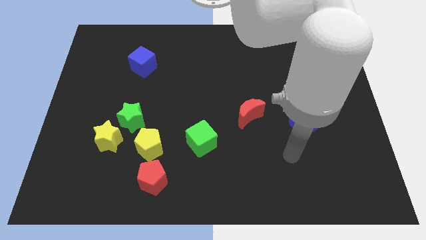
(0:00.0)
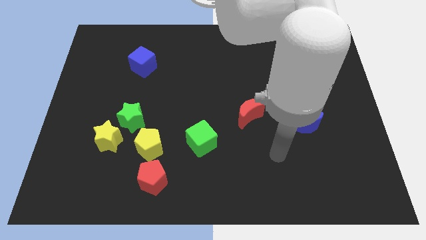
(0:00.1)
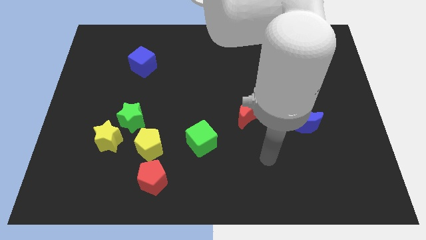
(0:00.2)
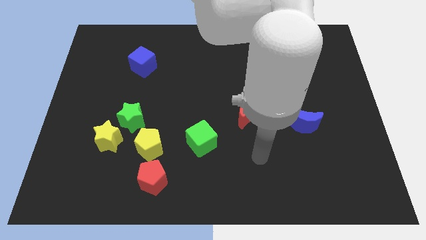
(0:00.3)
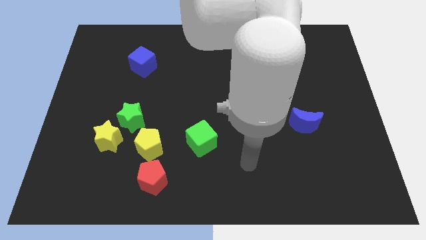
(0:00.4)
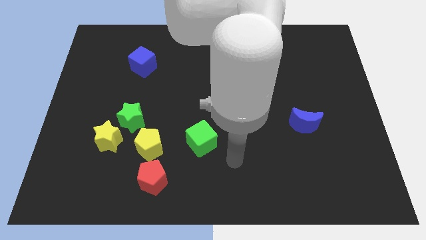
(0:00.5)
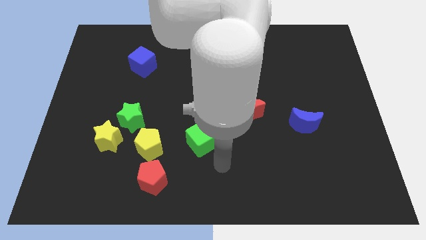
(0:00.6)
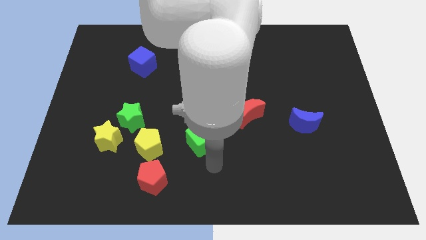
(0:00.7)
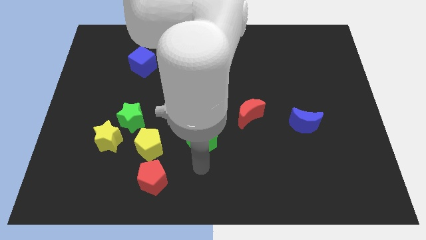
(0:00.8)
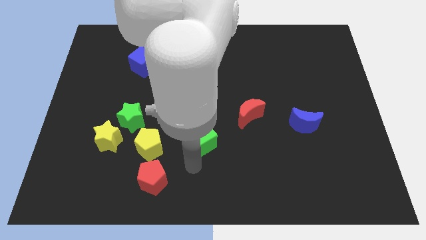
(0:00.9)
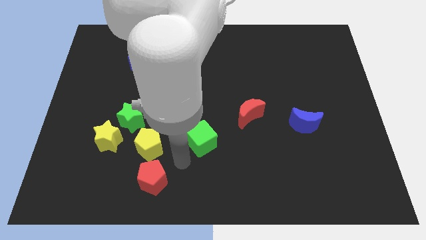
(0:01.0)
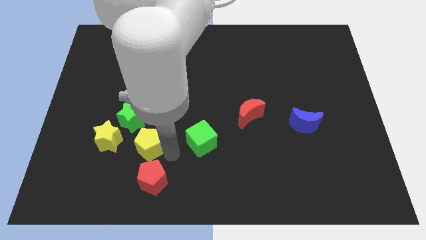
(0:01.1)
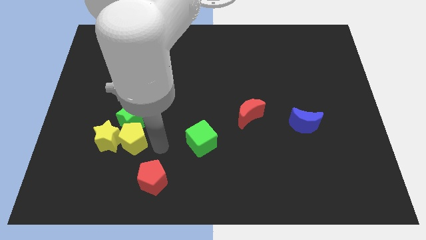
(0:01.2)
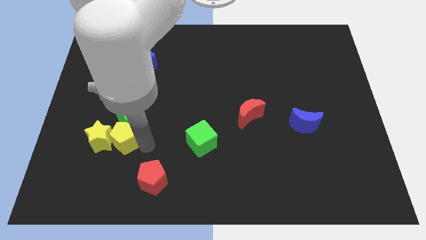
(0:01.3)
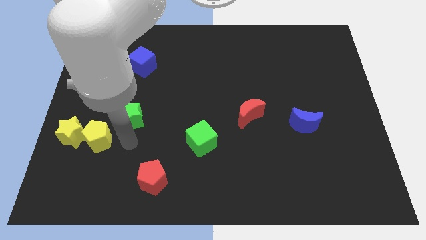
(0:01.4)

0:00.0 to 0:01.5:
separate the green star from the yellow star and yellow pentagon

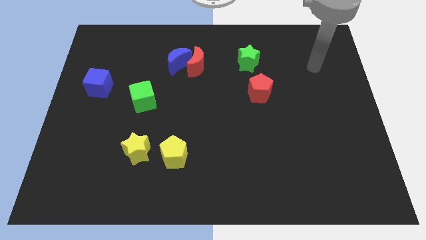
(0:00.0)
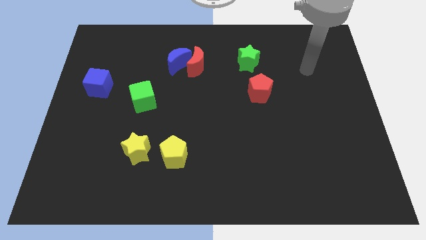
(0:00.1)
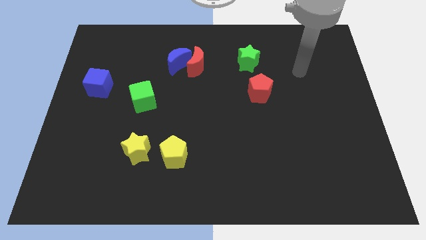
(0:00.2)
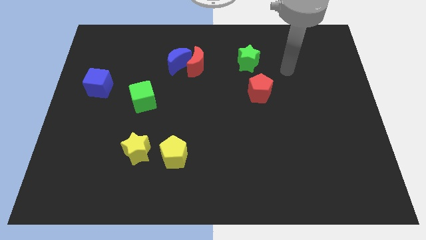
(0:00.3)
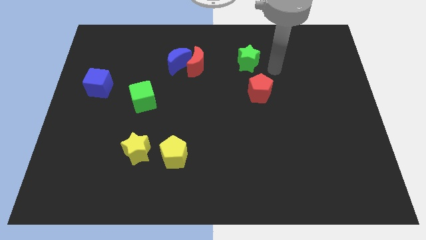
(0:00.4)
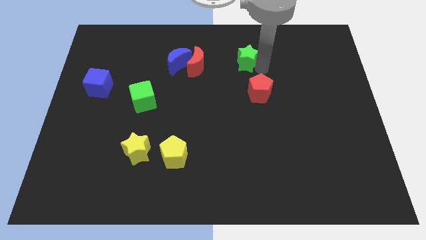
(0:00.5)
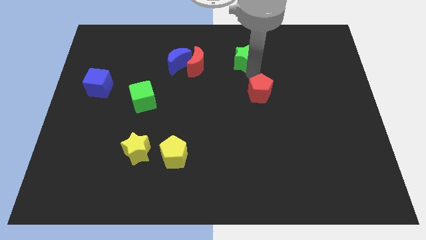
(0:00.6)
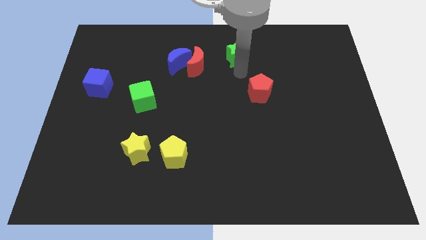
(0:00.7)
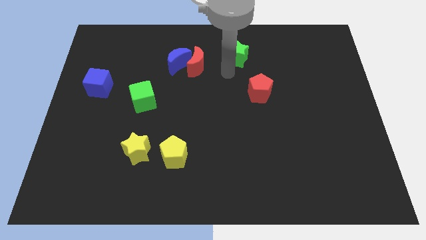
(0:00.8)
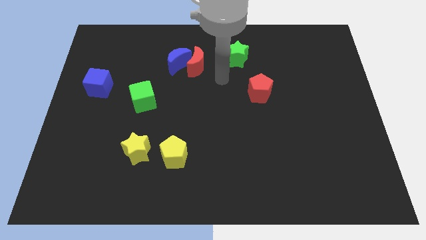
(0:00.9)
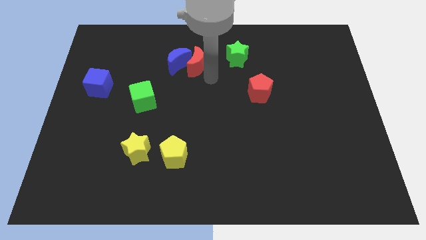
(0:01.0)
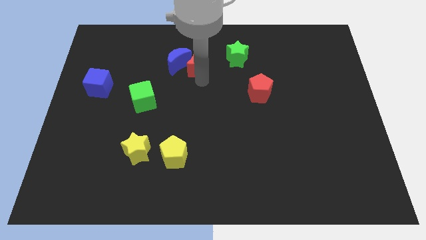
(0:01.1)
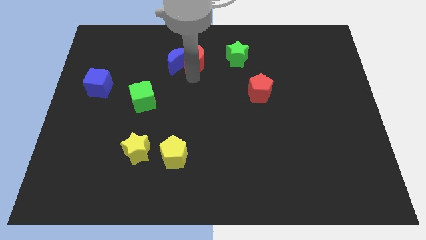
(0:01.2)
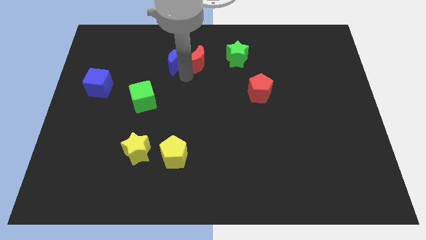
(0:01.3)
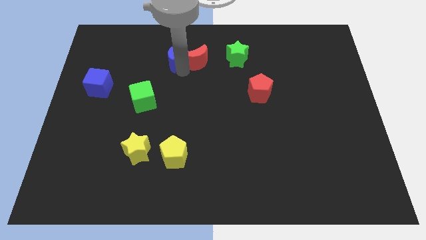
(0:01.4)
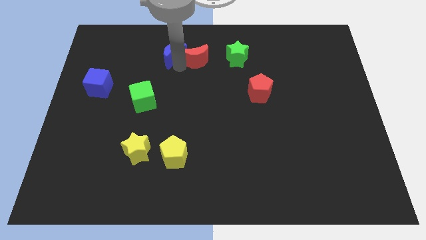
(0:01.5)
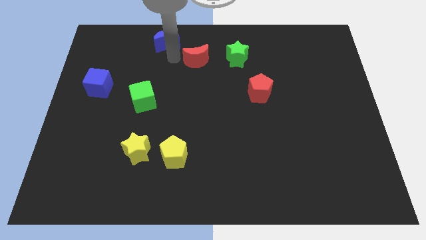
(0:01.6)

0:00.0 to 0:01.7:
move the red moon away from the blue moon

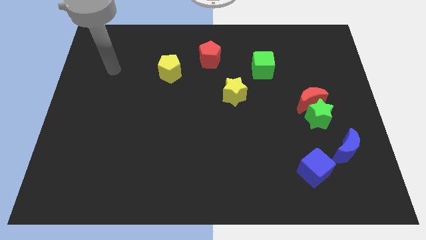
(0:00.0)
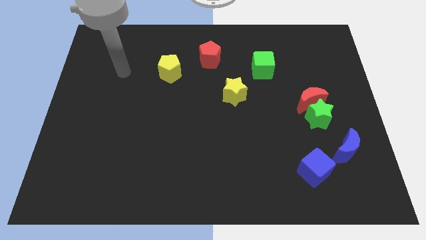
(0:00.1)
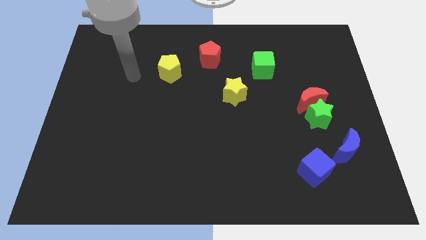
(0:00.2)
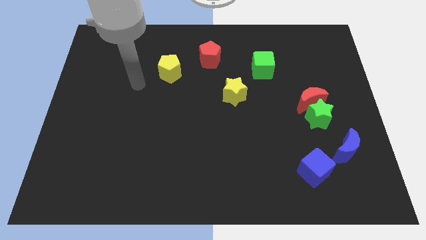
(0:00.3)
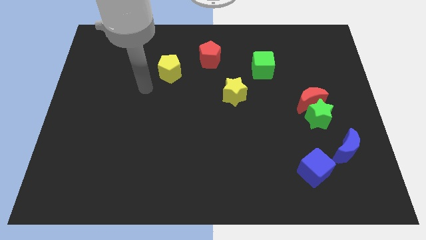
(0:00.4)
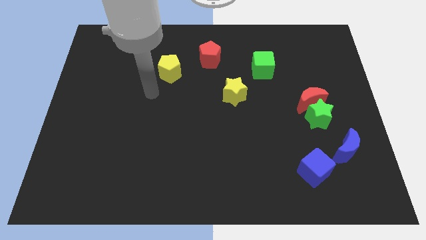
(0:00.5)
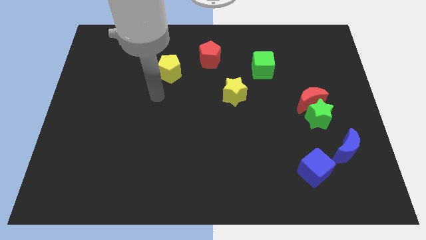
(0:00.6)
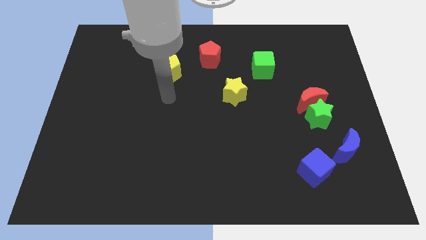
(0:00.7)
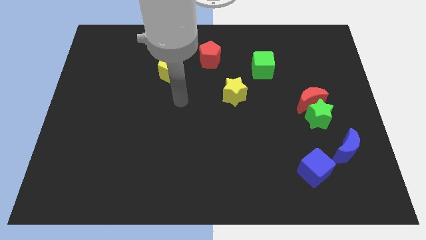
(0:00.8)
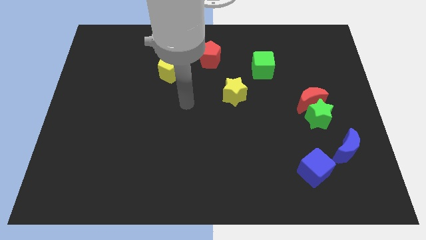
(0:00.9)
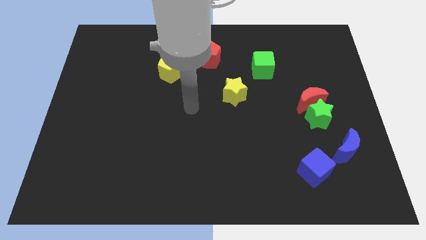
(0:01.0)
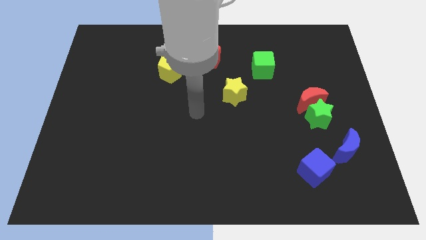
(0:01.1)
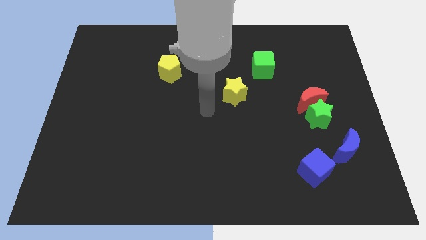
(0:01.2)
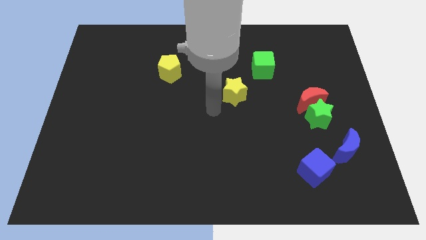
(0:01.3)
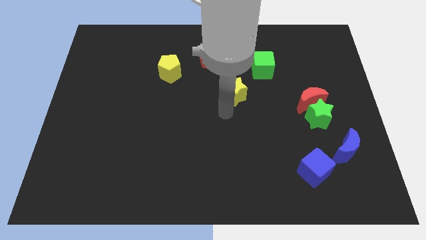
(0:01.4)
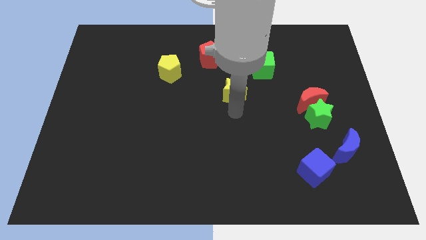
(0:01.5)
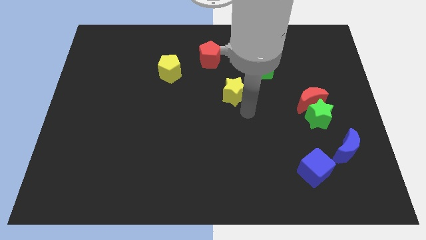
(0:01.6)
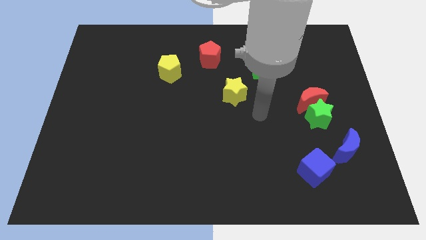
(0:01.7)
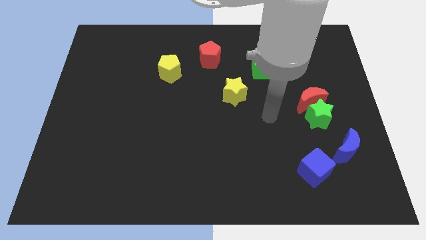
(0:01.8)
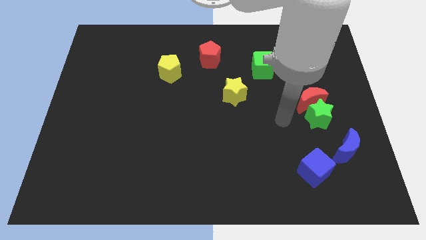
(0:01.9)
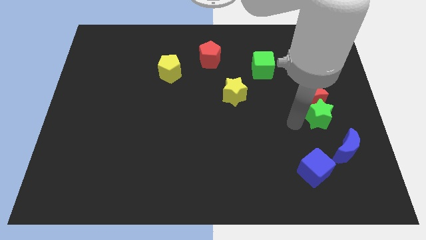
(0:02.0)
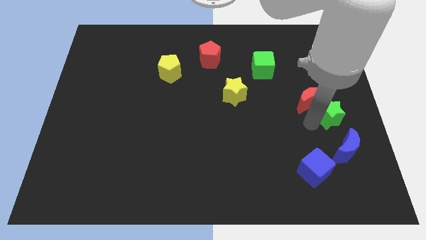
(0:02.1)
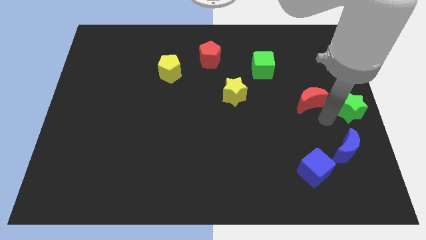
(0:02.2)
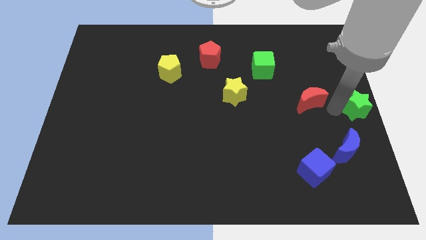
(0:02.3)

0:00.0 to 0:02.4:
pull the red moon apart from the green star

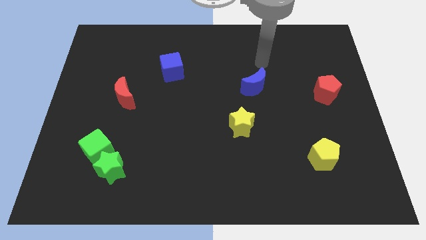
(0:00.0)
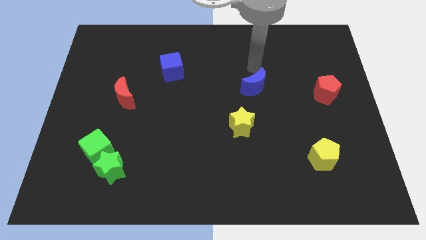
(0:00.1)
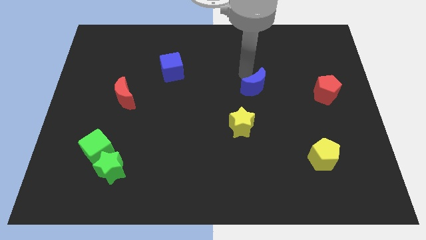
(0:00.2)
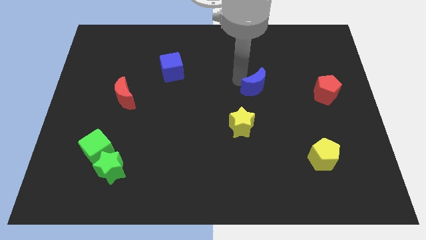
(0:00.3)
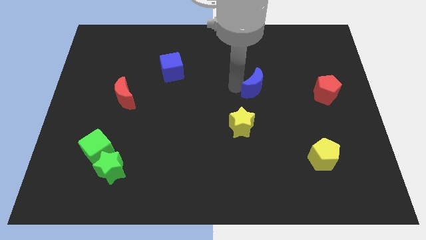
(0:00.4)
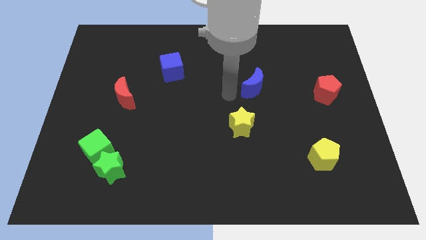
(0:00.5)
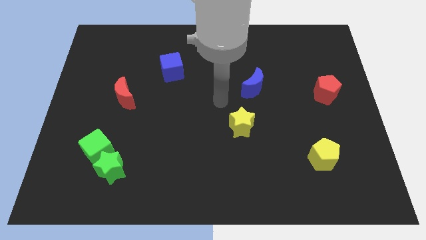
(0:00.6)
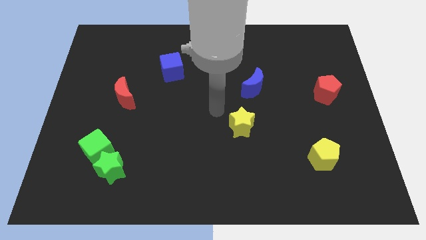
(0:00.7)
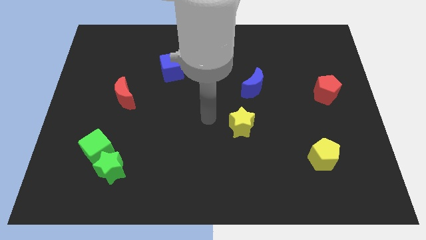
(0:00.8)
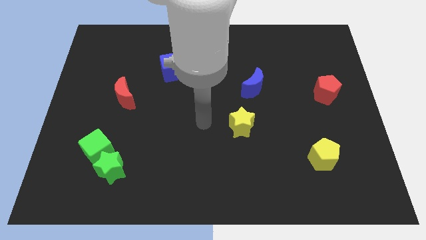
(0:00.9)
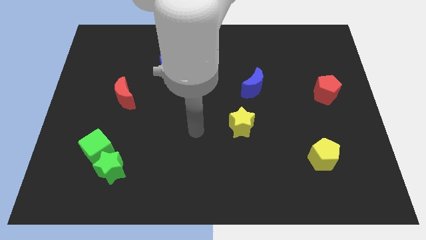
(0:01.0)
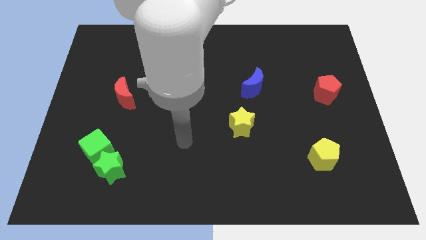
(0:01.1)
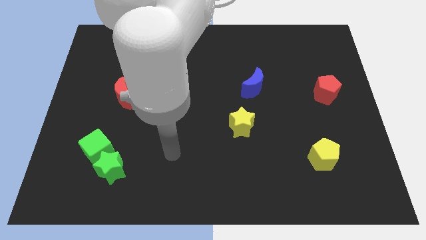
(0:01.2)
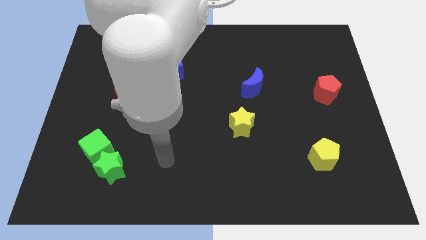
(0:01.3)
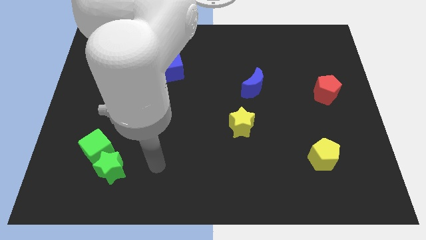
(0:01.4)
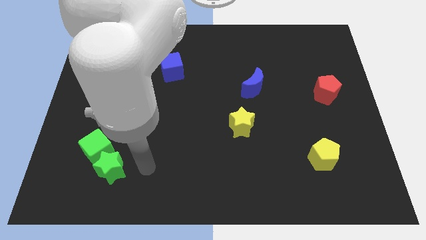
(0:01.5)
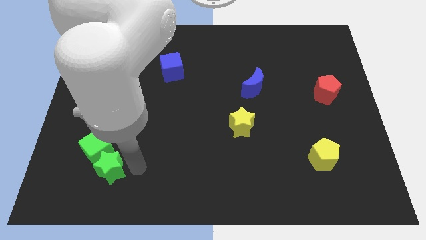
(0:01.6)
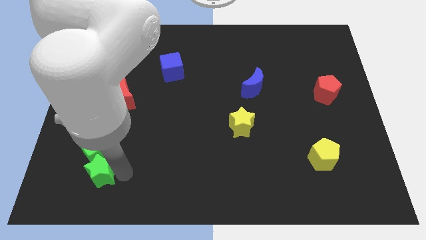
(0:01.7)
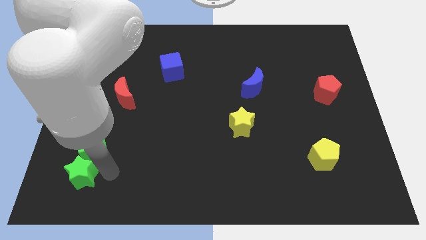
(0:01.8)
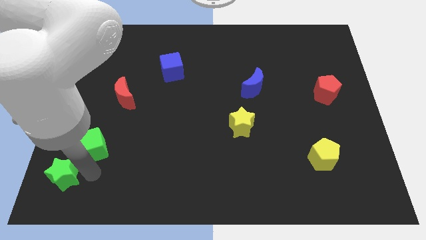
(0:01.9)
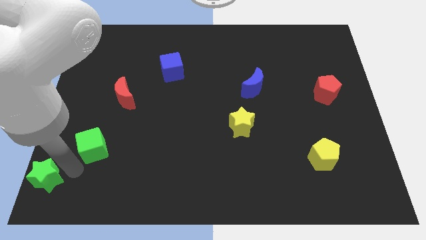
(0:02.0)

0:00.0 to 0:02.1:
separate the green cube from the green star

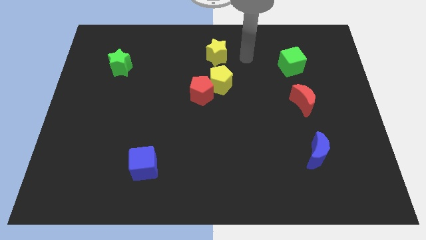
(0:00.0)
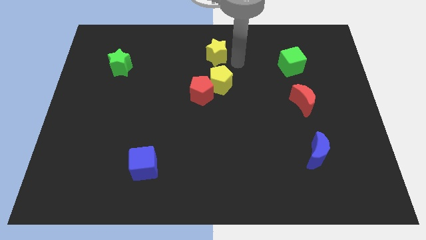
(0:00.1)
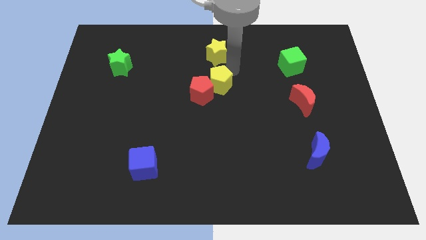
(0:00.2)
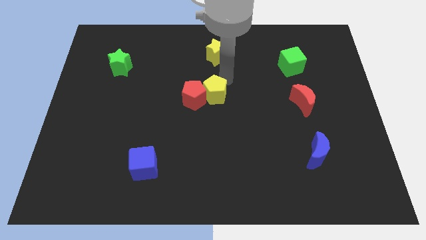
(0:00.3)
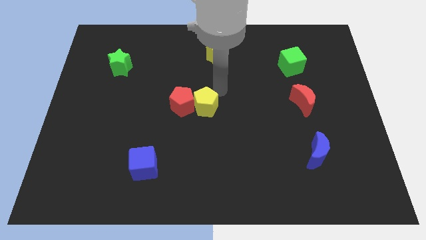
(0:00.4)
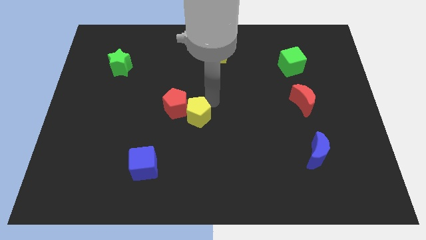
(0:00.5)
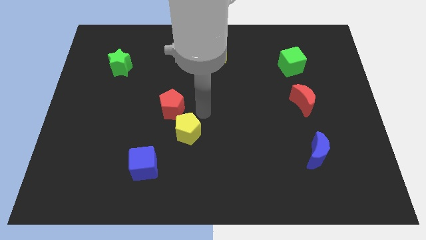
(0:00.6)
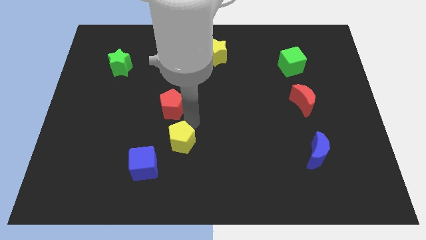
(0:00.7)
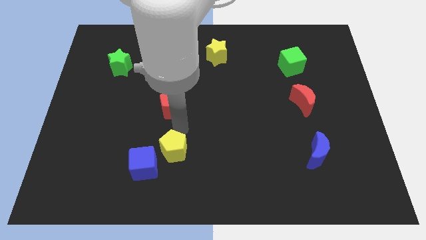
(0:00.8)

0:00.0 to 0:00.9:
separate the red pentagon from the yellow pentagon

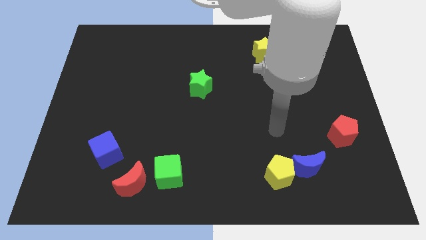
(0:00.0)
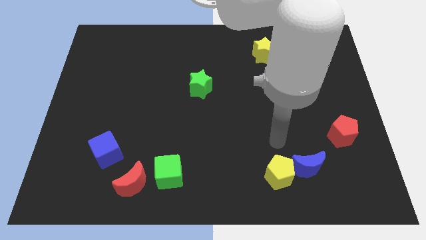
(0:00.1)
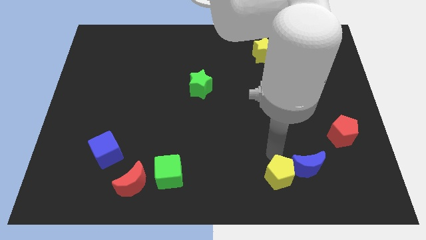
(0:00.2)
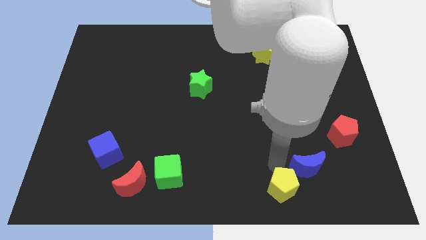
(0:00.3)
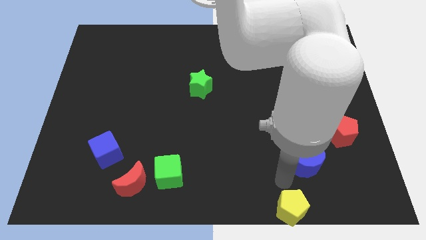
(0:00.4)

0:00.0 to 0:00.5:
move the blue moon away from the yellow pentagon

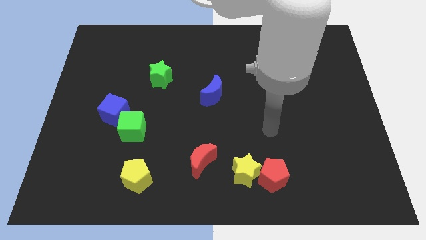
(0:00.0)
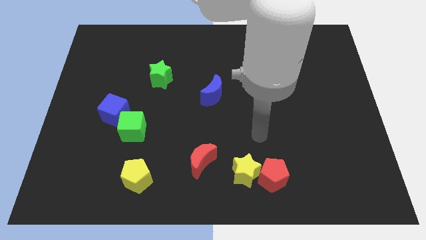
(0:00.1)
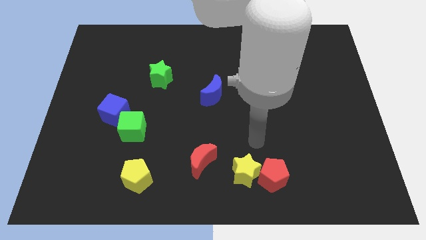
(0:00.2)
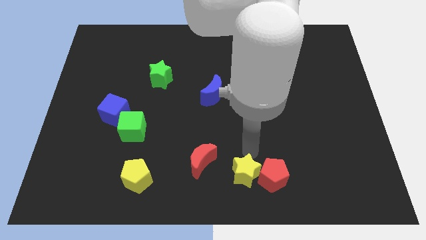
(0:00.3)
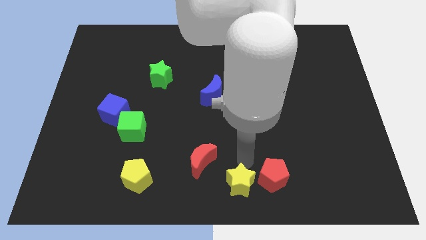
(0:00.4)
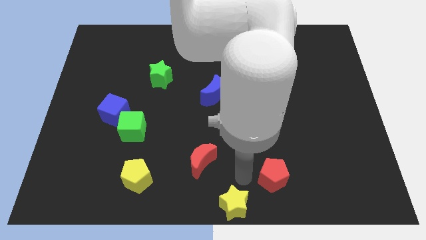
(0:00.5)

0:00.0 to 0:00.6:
separate the red pentagon from the yellow star
